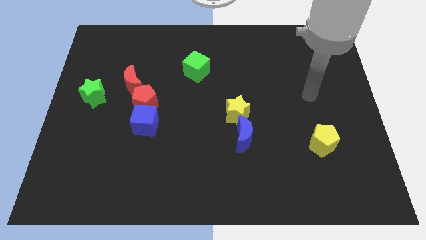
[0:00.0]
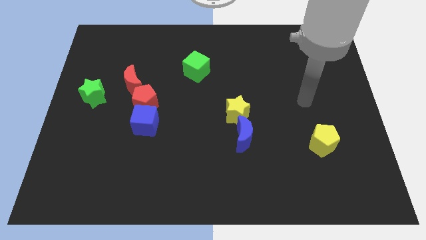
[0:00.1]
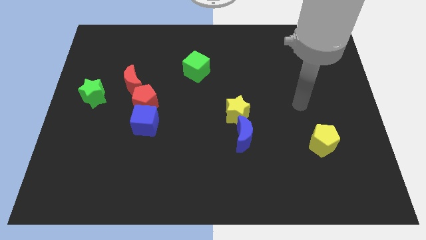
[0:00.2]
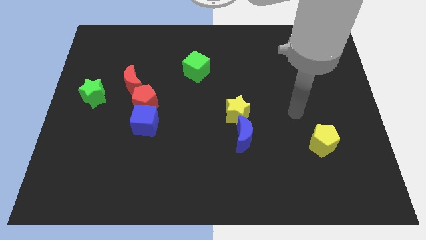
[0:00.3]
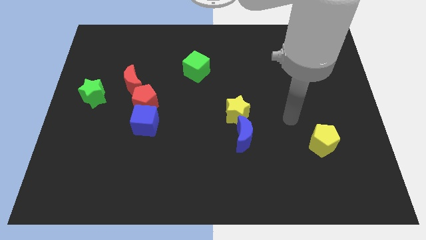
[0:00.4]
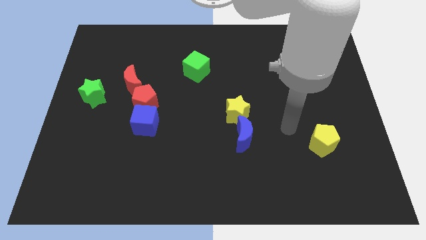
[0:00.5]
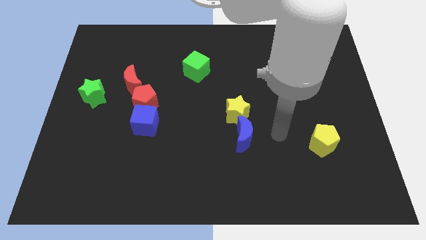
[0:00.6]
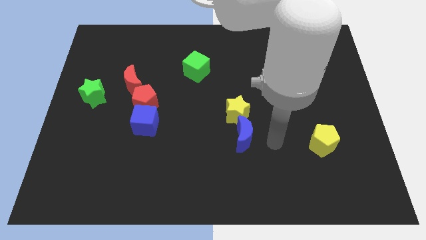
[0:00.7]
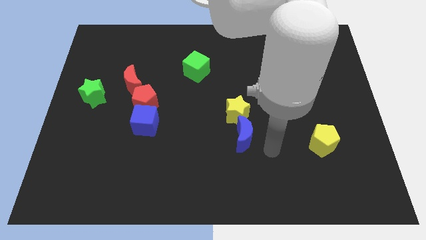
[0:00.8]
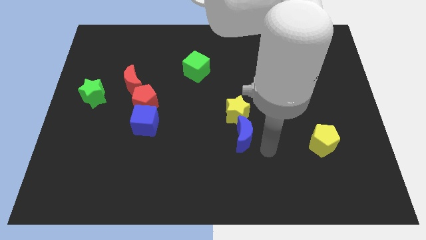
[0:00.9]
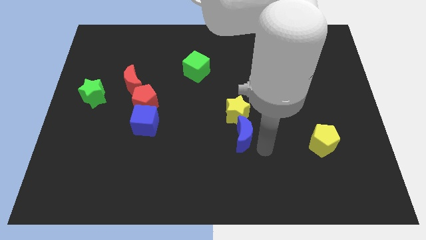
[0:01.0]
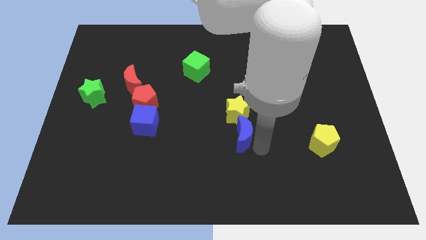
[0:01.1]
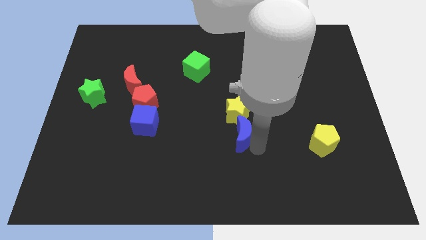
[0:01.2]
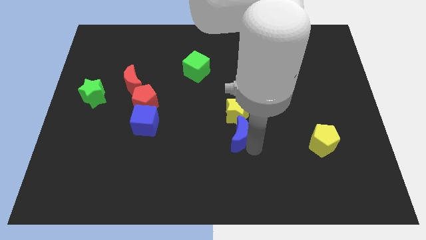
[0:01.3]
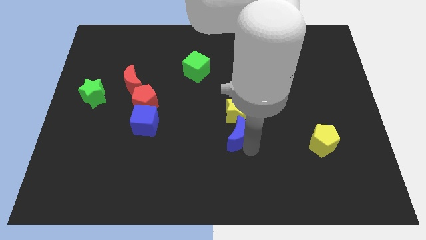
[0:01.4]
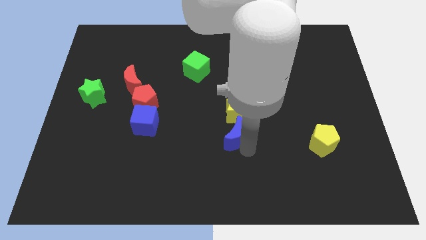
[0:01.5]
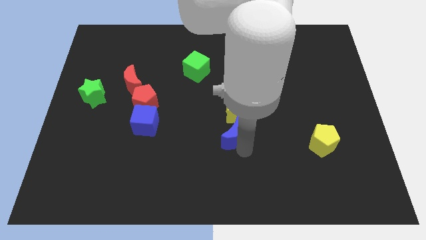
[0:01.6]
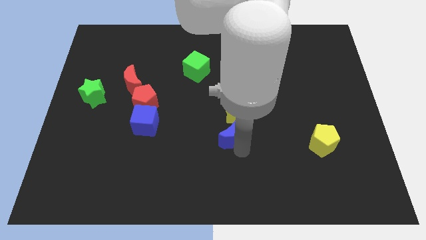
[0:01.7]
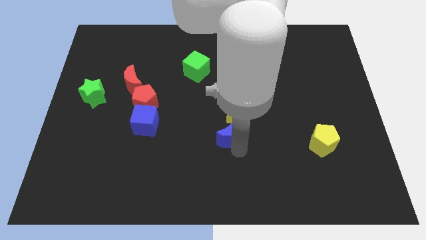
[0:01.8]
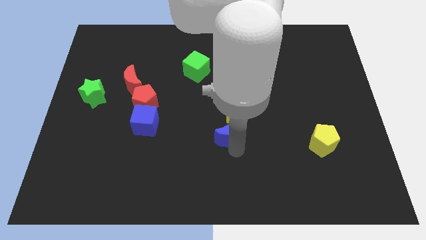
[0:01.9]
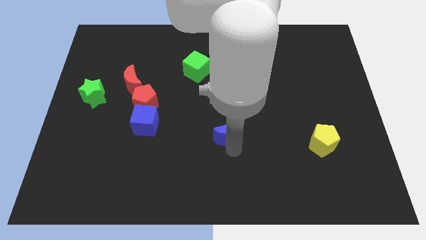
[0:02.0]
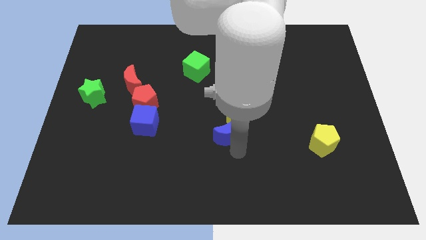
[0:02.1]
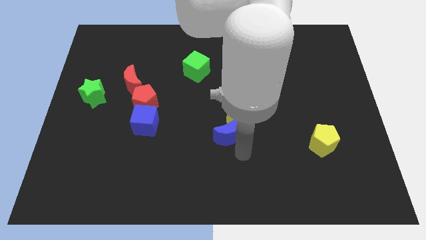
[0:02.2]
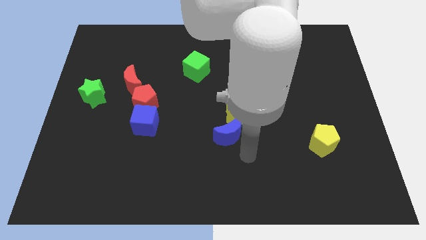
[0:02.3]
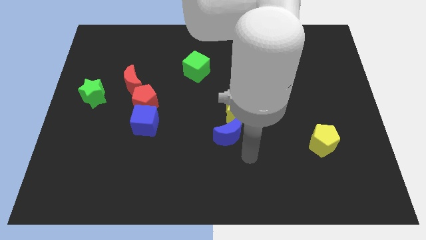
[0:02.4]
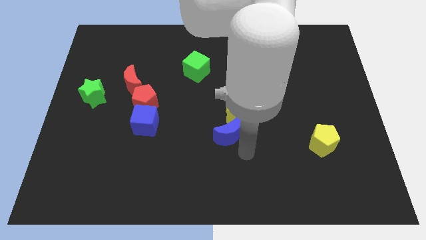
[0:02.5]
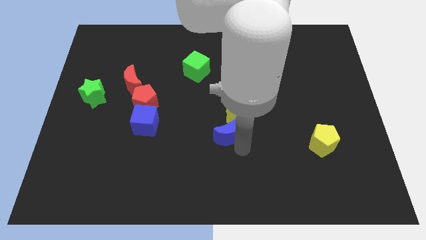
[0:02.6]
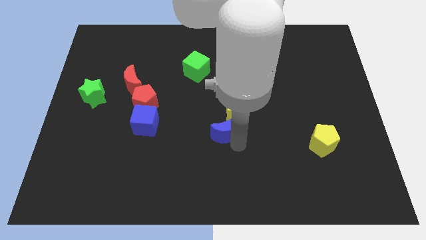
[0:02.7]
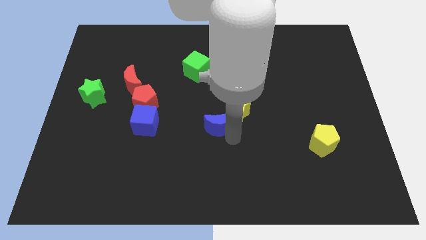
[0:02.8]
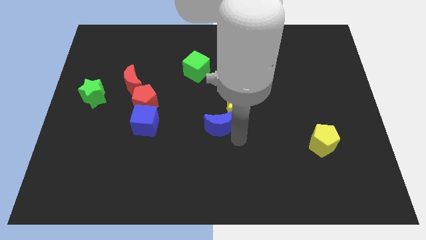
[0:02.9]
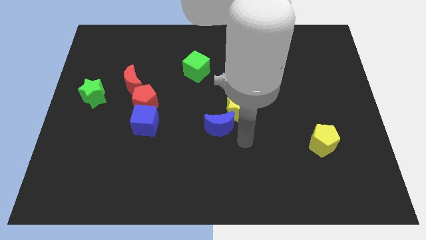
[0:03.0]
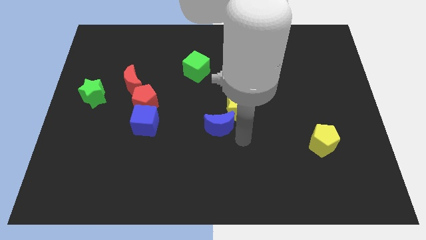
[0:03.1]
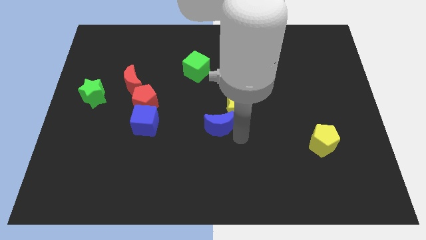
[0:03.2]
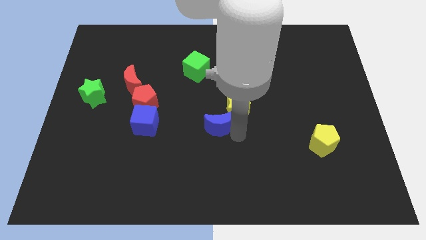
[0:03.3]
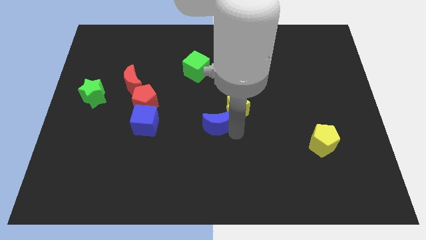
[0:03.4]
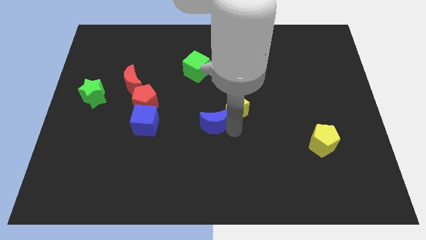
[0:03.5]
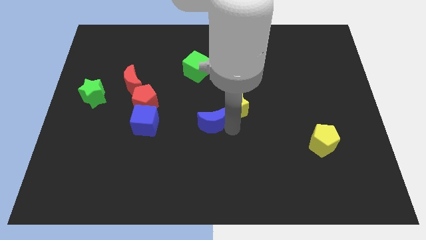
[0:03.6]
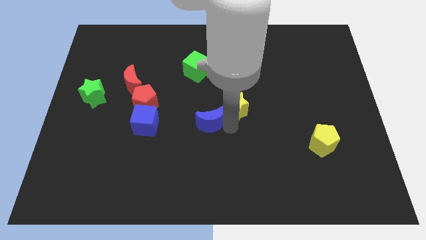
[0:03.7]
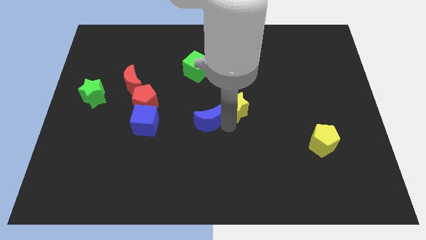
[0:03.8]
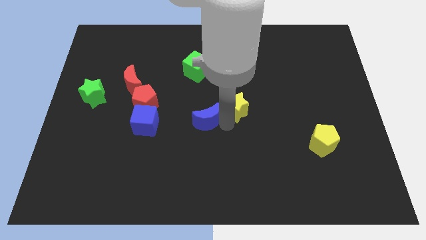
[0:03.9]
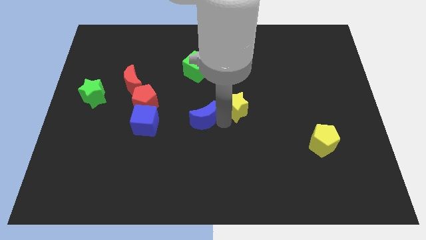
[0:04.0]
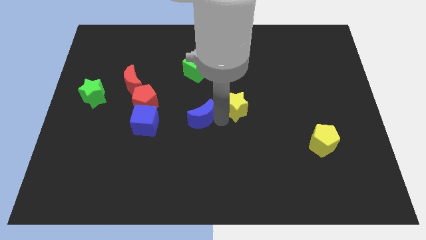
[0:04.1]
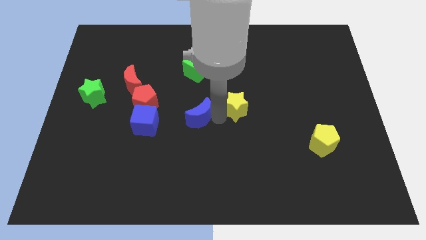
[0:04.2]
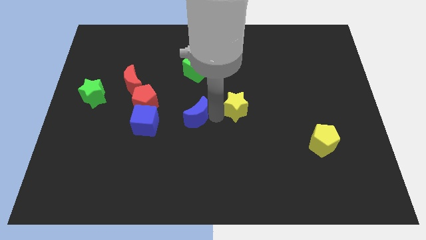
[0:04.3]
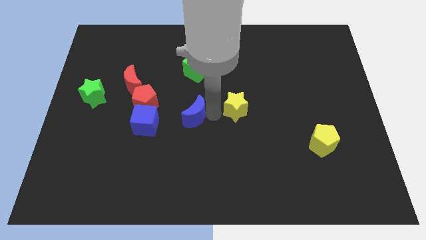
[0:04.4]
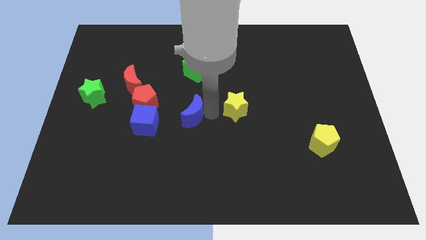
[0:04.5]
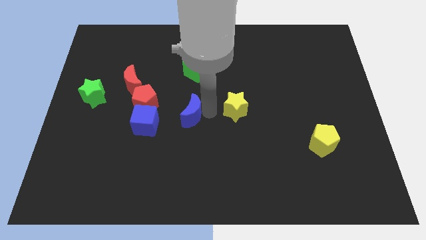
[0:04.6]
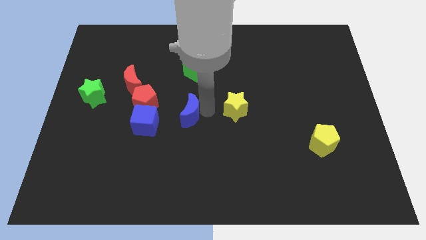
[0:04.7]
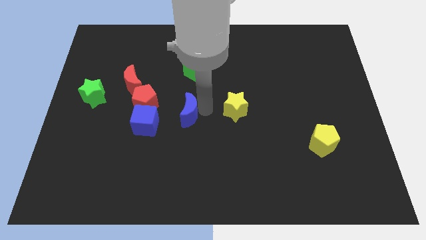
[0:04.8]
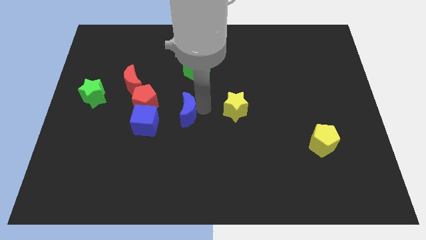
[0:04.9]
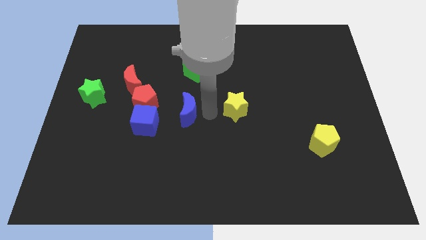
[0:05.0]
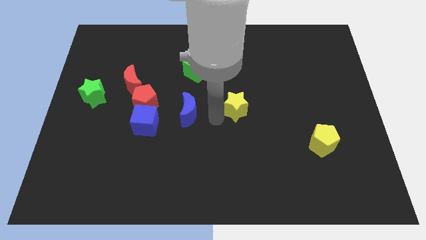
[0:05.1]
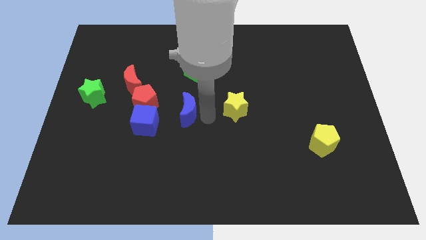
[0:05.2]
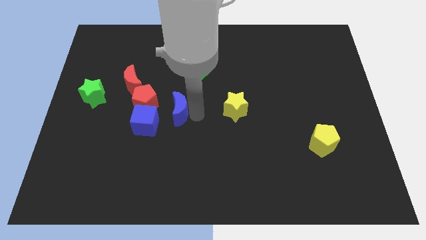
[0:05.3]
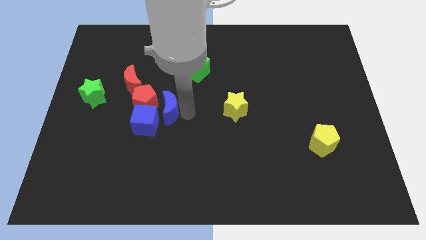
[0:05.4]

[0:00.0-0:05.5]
push the blue moon towards the red pentagon

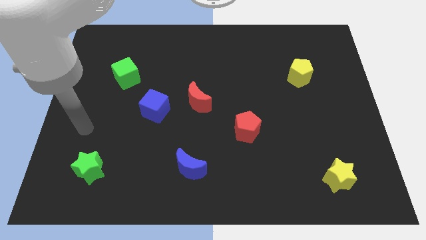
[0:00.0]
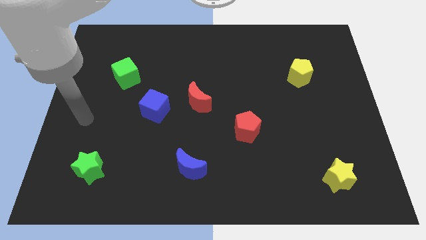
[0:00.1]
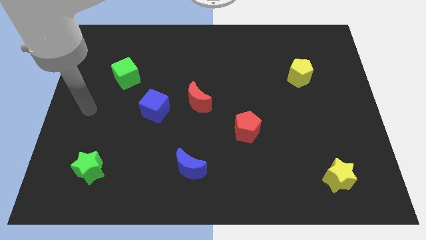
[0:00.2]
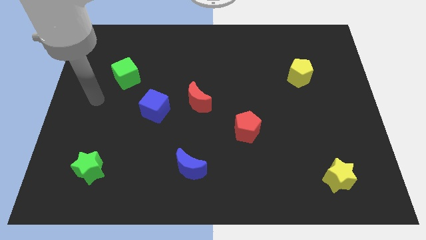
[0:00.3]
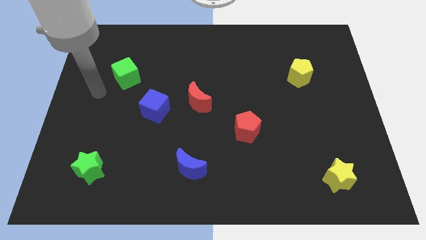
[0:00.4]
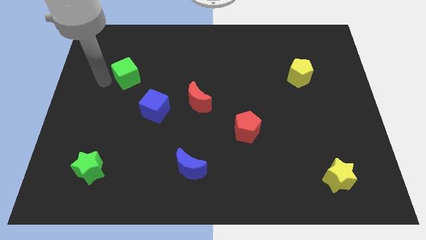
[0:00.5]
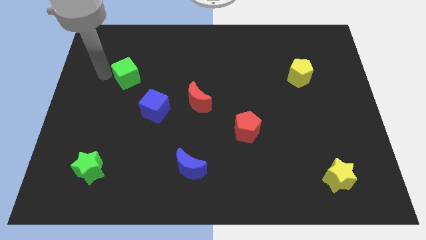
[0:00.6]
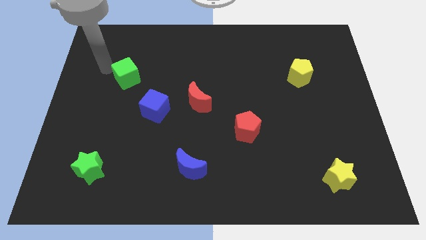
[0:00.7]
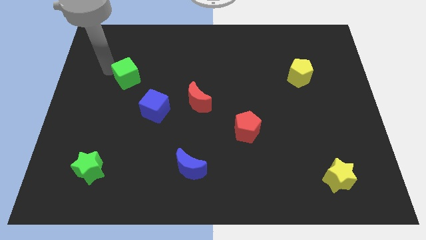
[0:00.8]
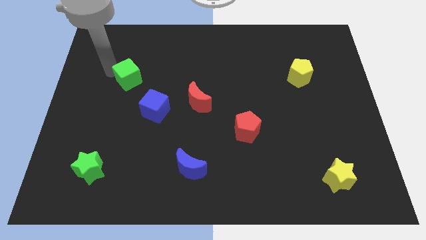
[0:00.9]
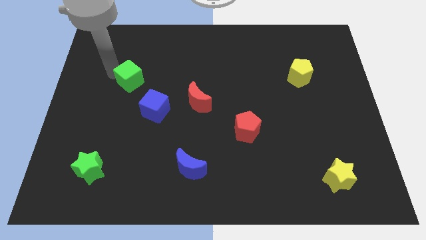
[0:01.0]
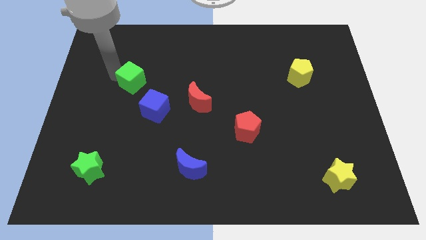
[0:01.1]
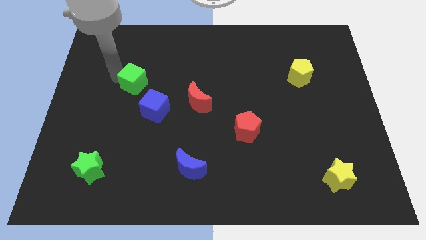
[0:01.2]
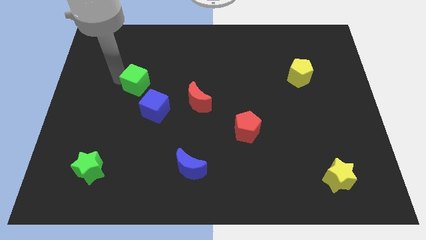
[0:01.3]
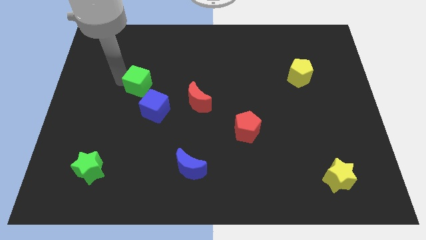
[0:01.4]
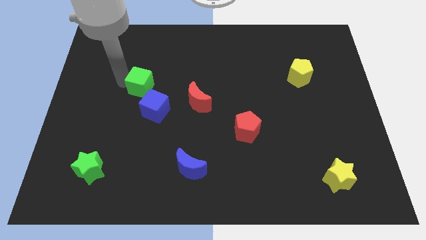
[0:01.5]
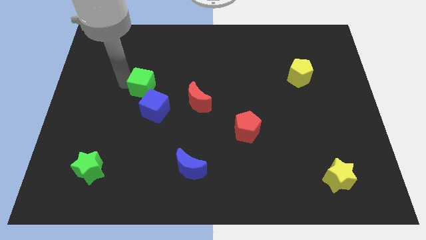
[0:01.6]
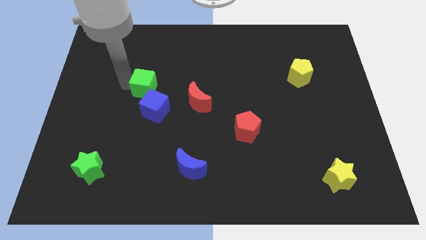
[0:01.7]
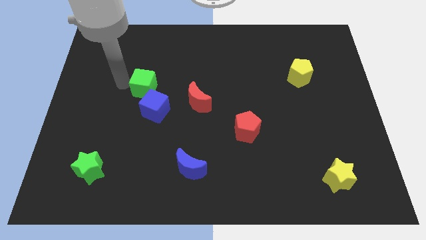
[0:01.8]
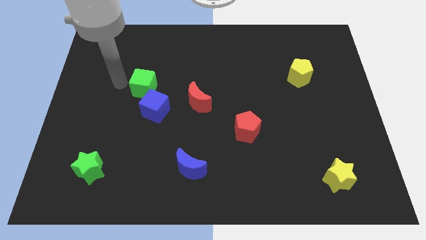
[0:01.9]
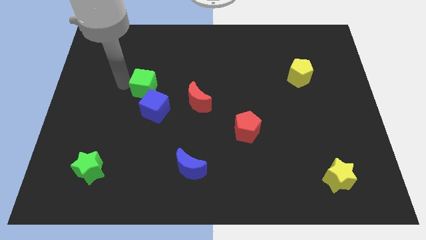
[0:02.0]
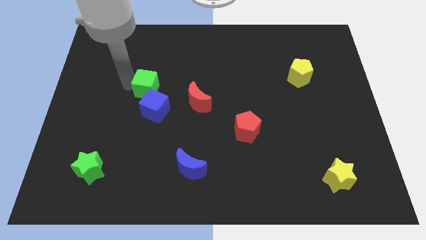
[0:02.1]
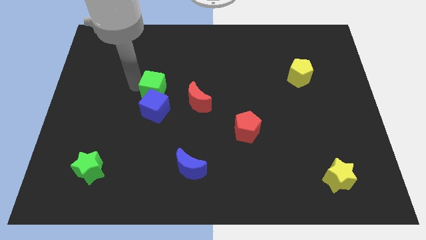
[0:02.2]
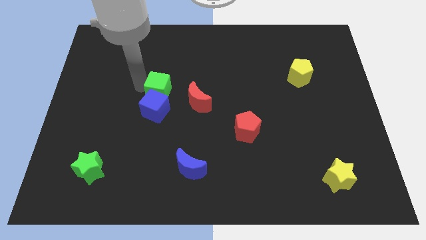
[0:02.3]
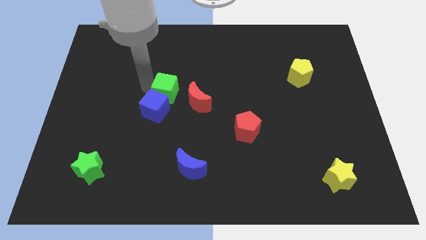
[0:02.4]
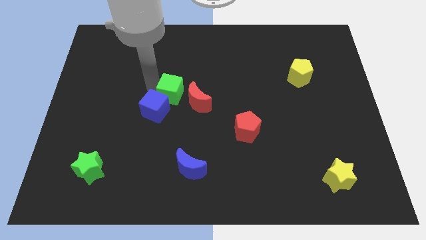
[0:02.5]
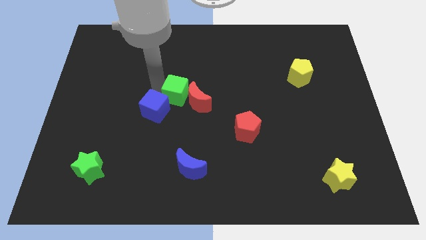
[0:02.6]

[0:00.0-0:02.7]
put the green cube to the red moon
